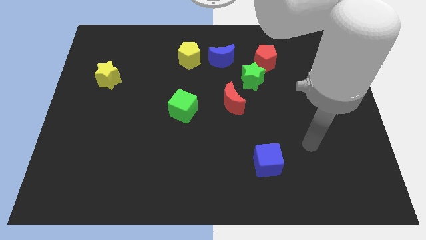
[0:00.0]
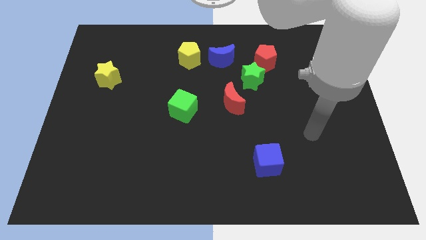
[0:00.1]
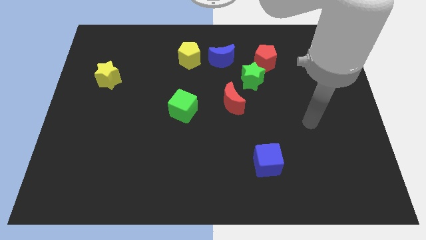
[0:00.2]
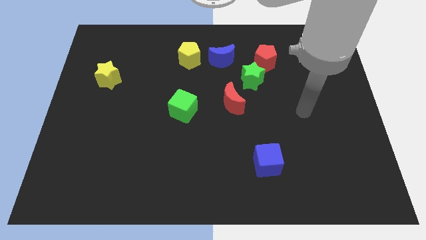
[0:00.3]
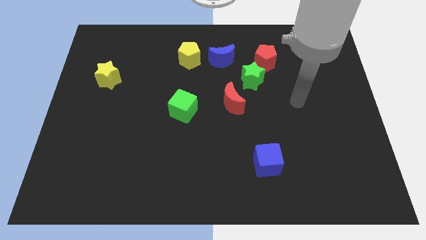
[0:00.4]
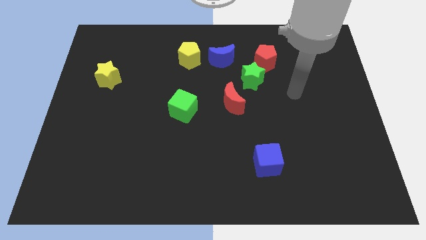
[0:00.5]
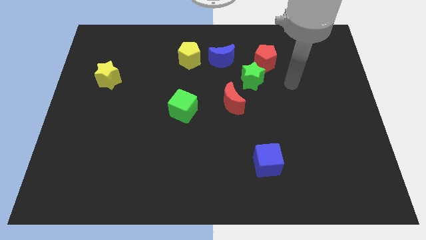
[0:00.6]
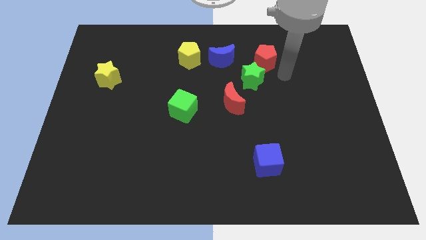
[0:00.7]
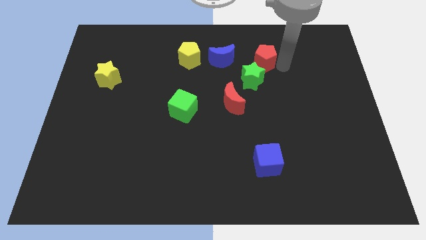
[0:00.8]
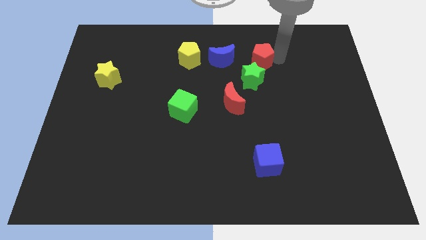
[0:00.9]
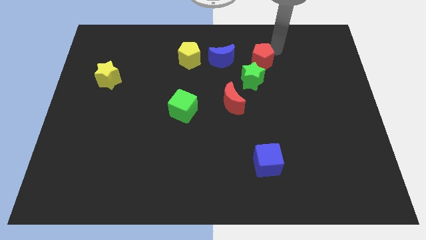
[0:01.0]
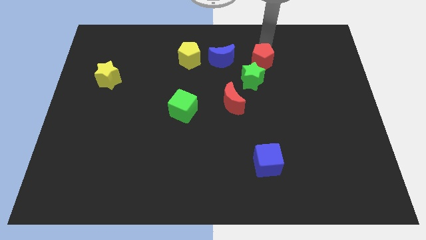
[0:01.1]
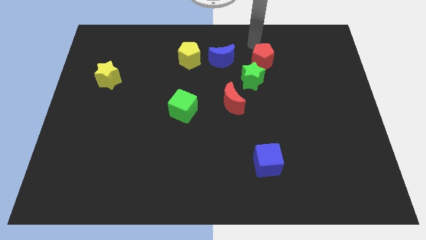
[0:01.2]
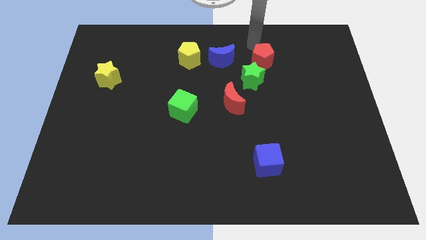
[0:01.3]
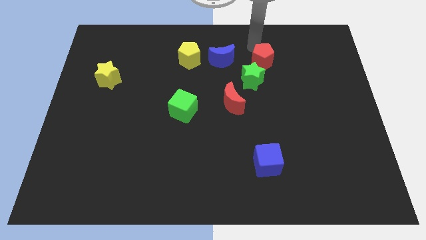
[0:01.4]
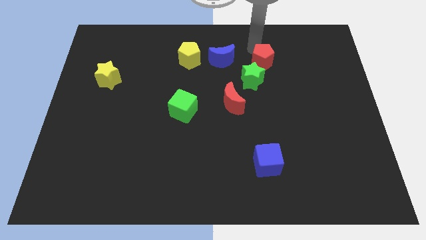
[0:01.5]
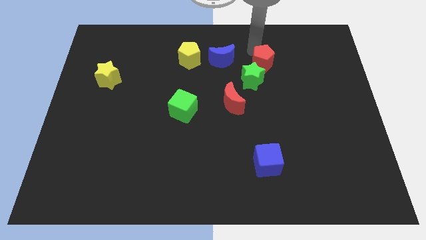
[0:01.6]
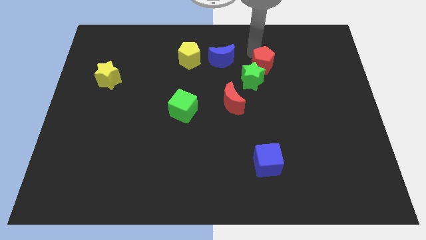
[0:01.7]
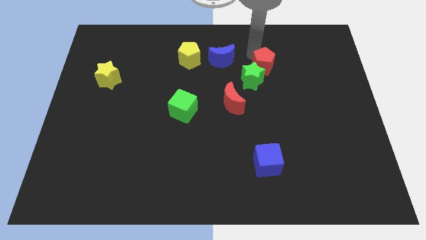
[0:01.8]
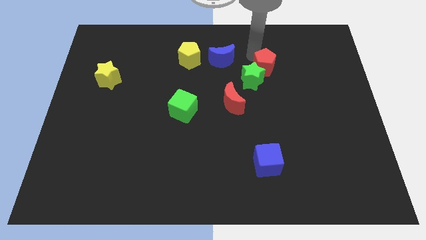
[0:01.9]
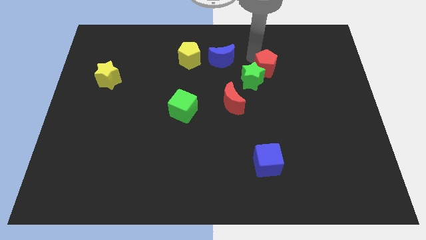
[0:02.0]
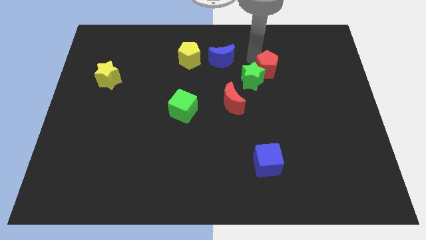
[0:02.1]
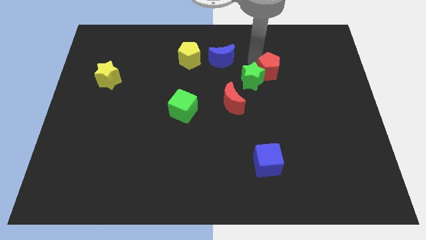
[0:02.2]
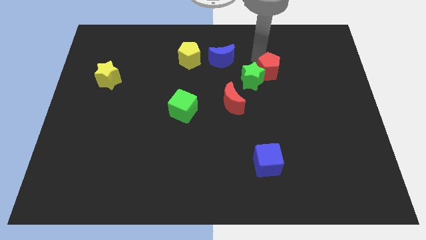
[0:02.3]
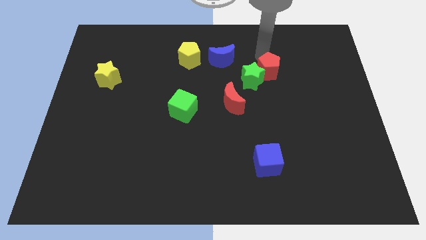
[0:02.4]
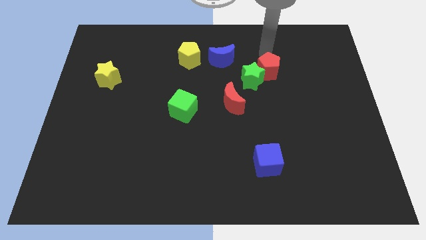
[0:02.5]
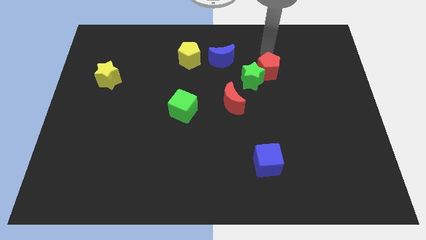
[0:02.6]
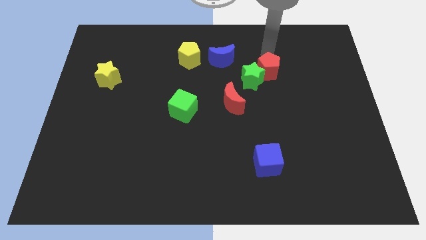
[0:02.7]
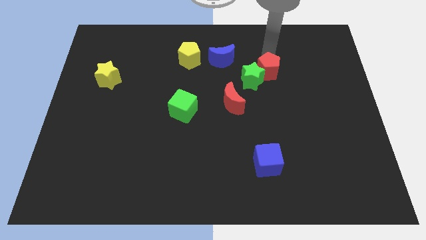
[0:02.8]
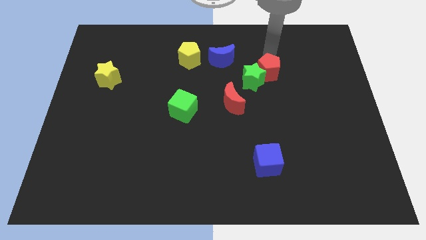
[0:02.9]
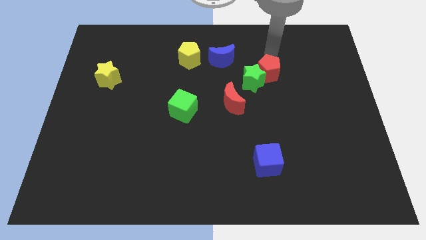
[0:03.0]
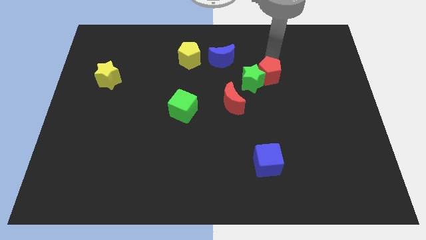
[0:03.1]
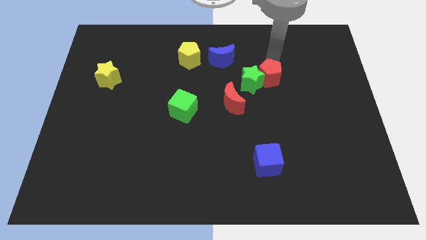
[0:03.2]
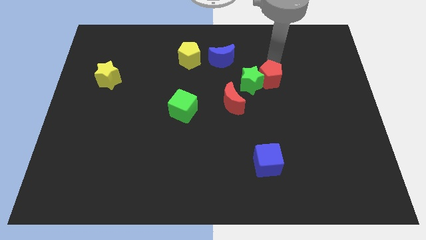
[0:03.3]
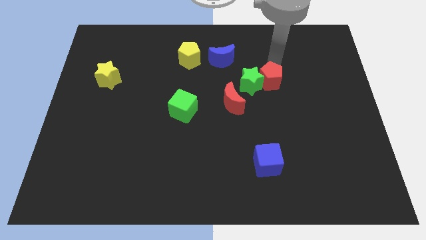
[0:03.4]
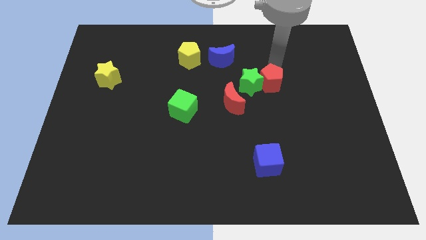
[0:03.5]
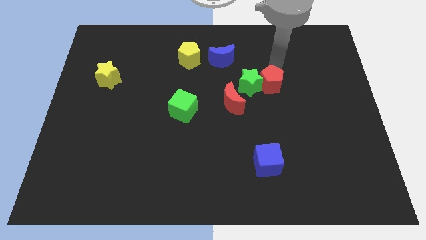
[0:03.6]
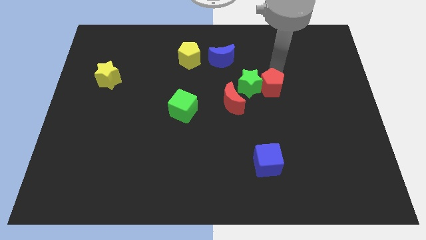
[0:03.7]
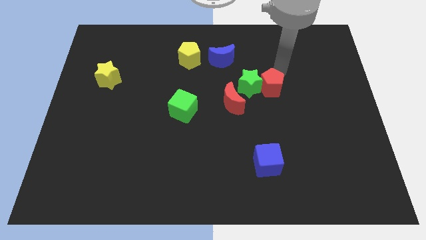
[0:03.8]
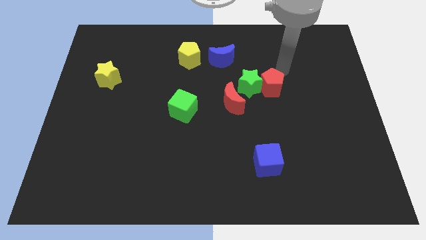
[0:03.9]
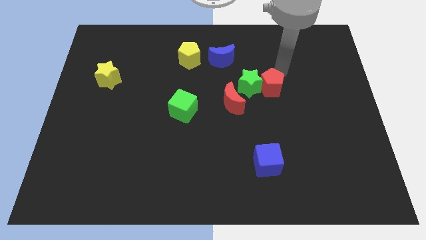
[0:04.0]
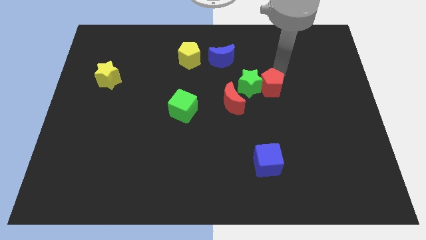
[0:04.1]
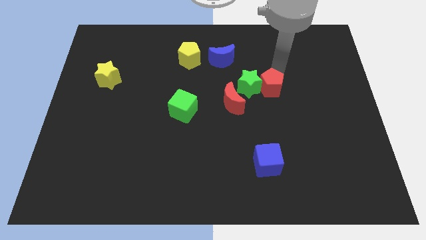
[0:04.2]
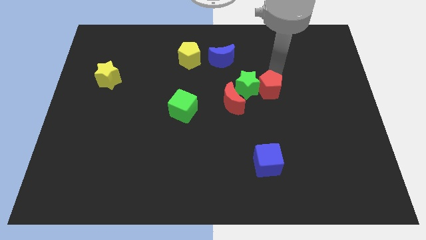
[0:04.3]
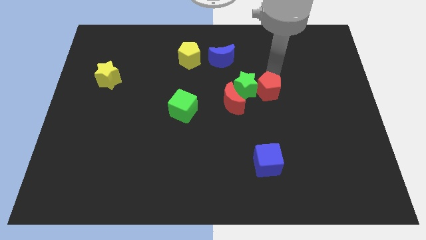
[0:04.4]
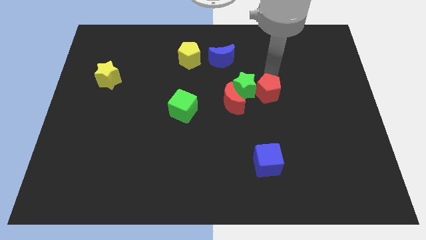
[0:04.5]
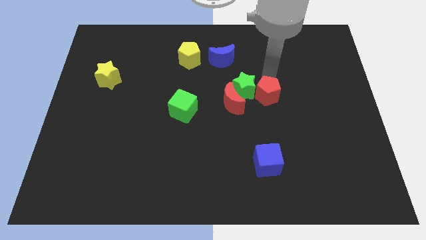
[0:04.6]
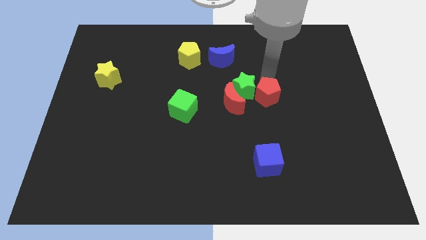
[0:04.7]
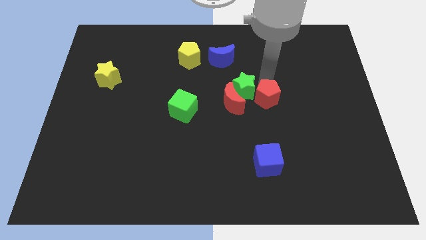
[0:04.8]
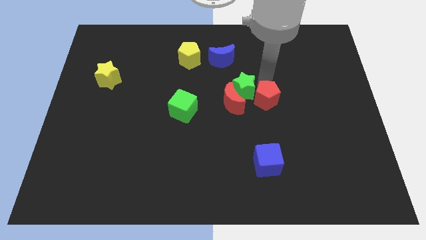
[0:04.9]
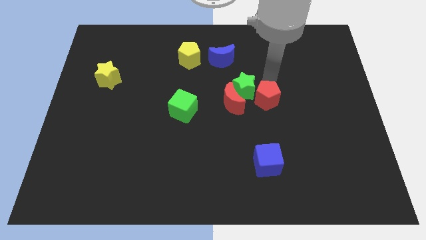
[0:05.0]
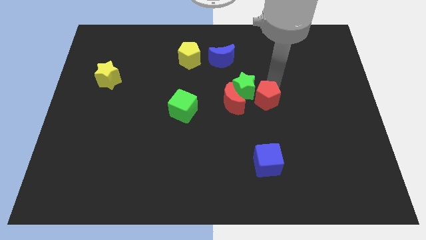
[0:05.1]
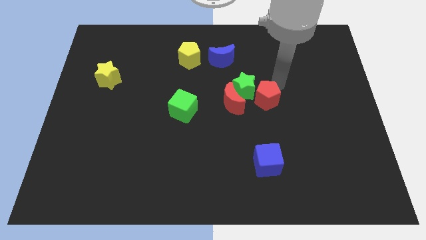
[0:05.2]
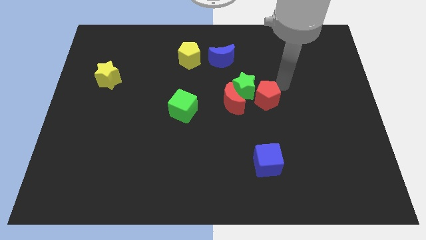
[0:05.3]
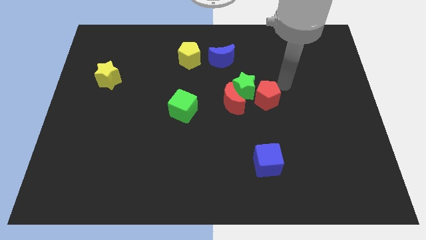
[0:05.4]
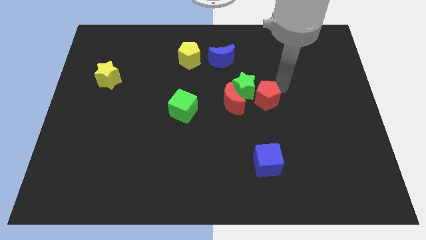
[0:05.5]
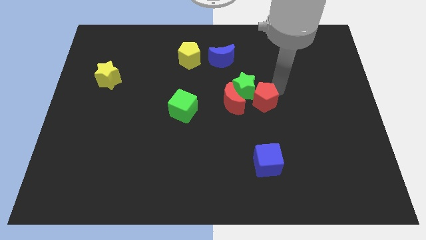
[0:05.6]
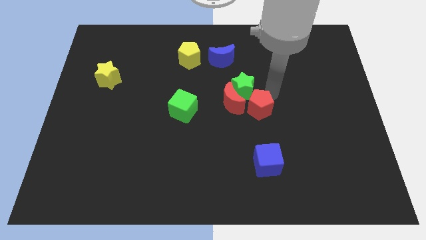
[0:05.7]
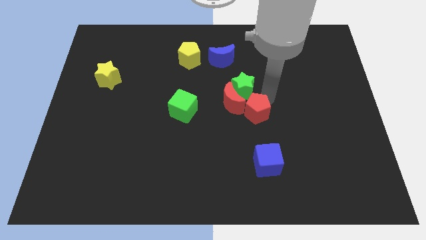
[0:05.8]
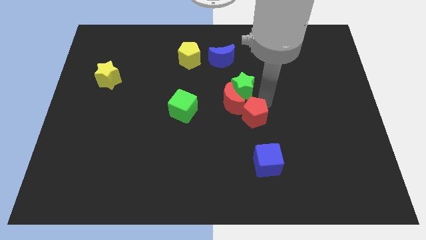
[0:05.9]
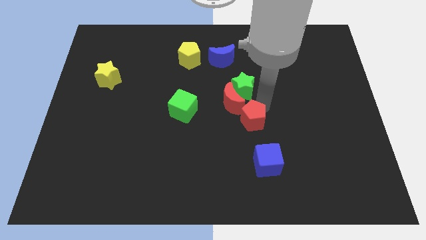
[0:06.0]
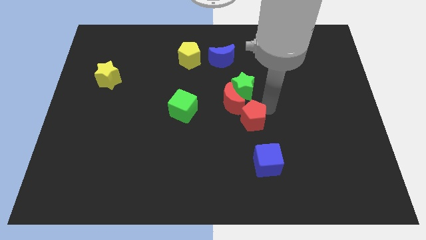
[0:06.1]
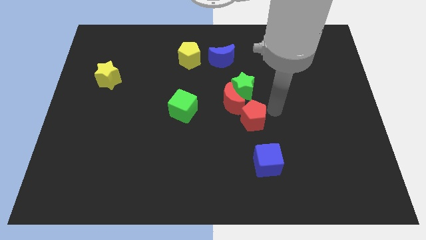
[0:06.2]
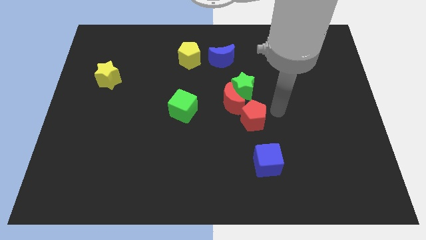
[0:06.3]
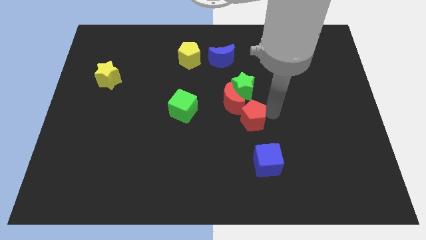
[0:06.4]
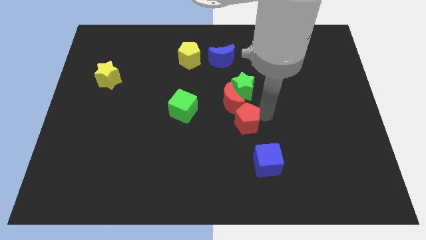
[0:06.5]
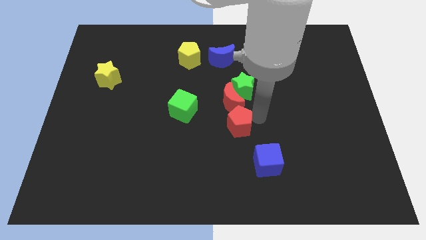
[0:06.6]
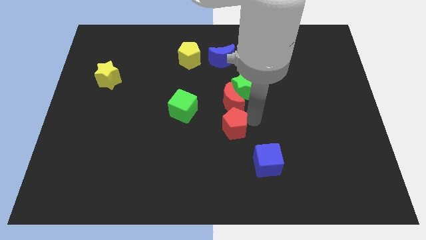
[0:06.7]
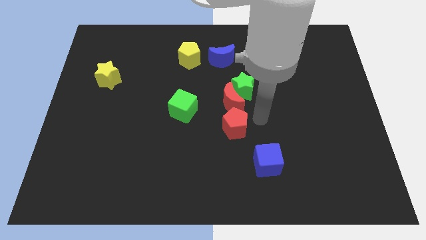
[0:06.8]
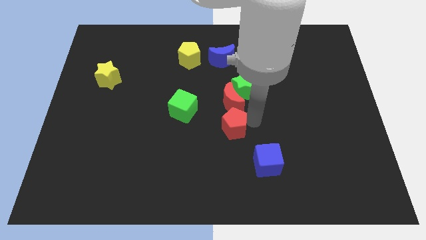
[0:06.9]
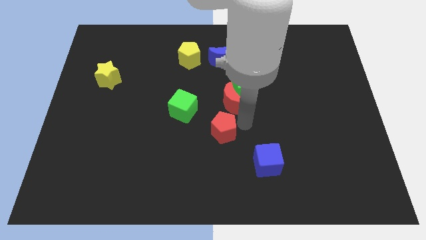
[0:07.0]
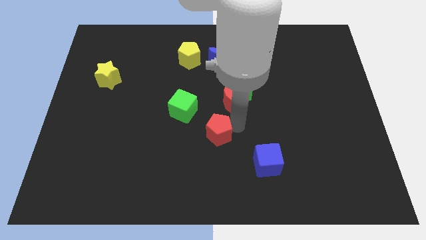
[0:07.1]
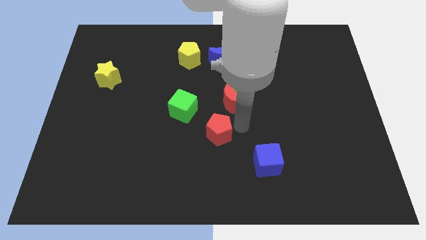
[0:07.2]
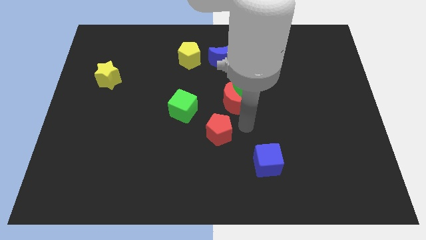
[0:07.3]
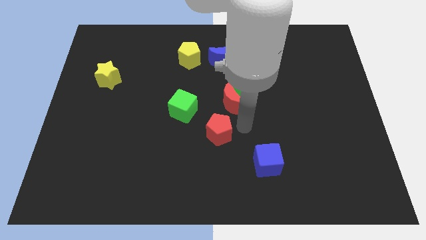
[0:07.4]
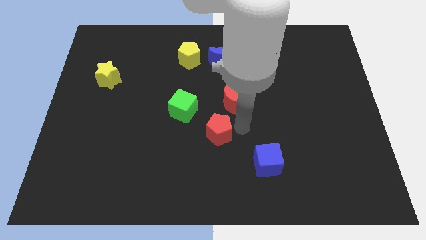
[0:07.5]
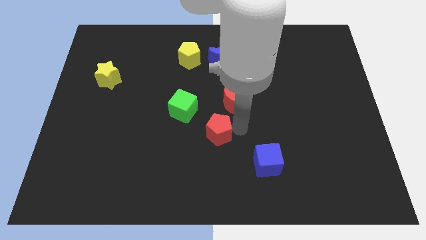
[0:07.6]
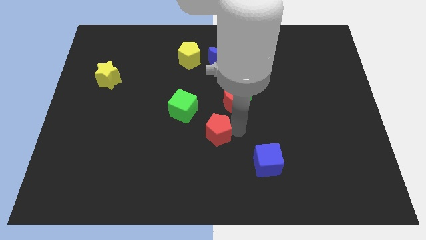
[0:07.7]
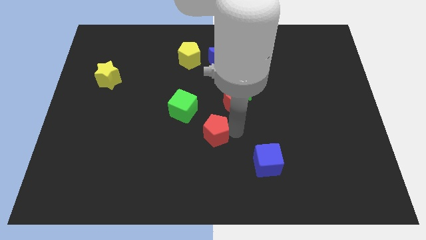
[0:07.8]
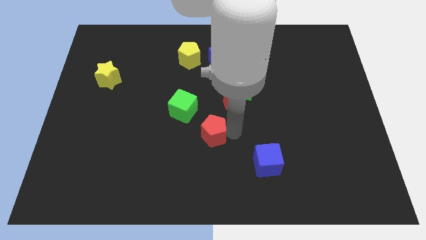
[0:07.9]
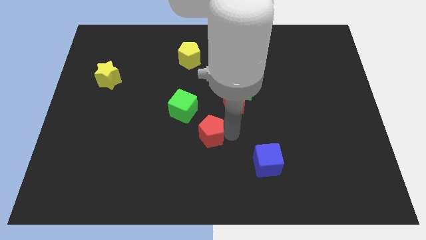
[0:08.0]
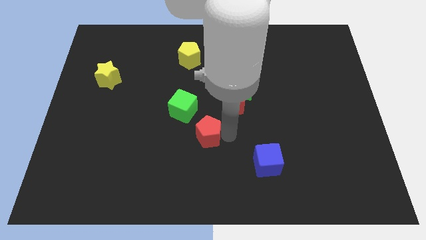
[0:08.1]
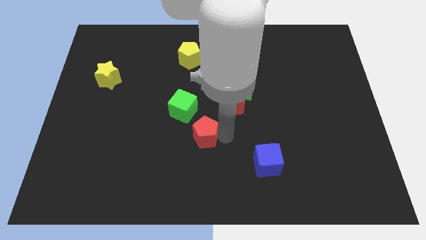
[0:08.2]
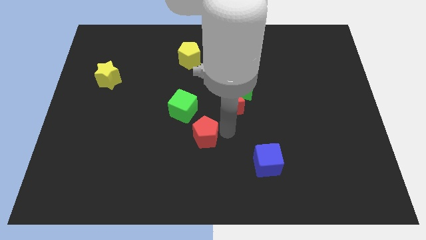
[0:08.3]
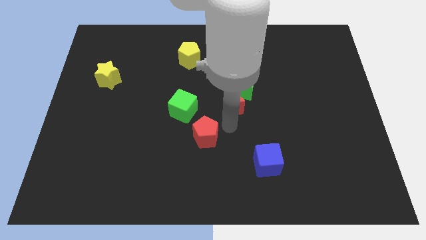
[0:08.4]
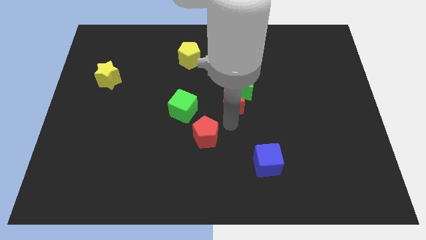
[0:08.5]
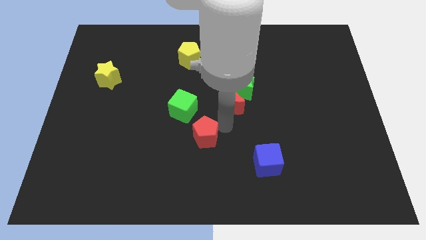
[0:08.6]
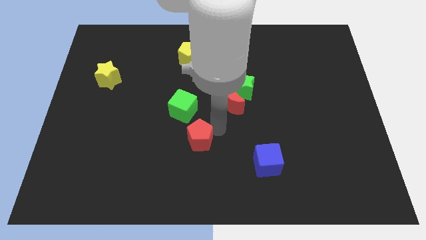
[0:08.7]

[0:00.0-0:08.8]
put the red pentagon to the bottom side of the green cube
